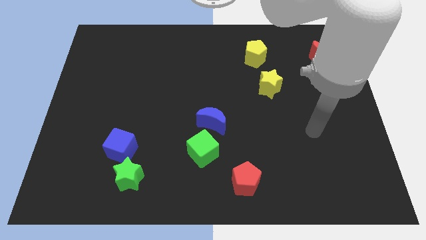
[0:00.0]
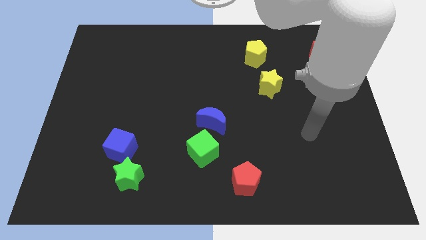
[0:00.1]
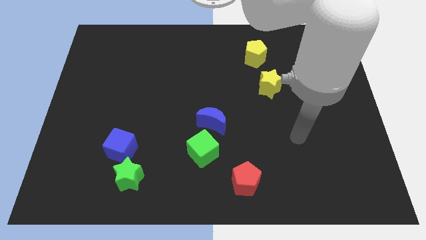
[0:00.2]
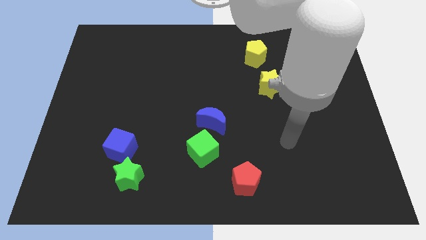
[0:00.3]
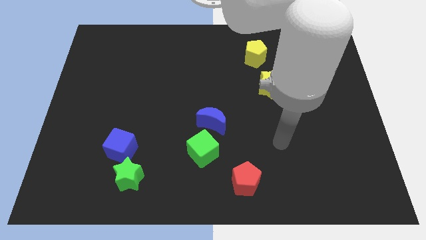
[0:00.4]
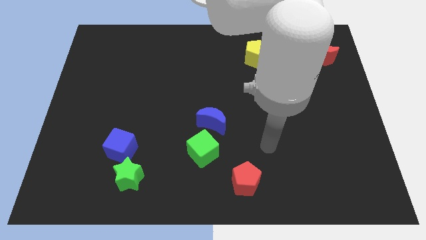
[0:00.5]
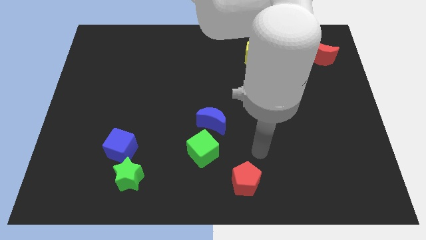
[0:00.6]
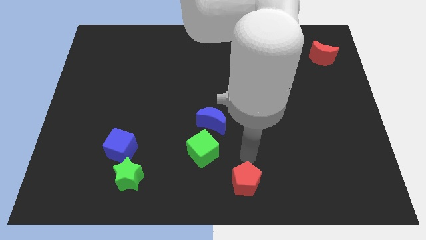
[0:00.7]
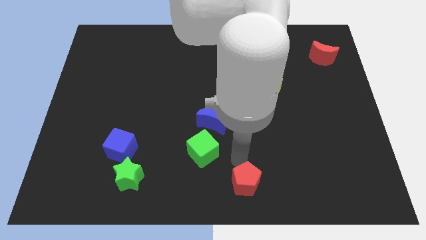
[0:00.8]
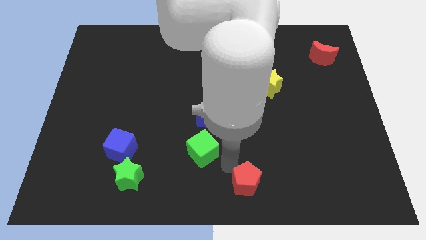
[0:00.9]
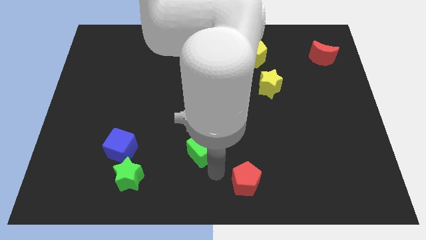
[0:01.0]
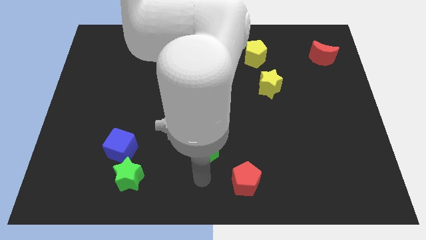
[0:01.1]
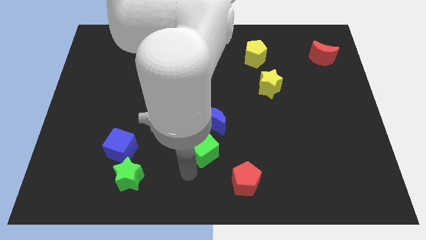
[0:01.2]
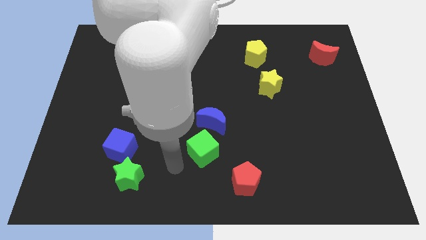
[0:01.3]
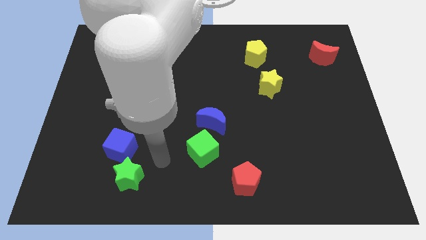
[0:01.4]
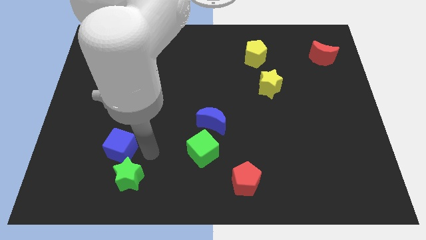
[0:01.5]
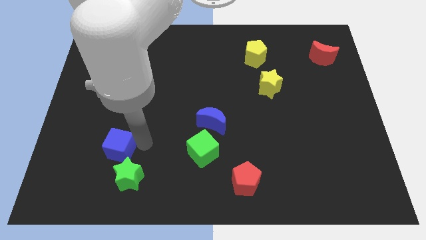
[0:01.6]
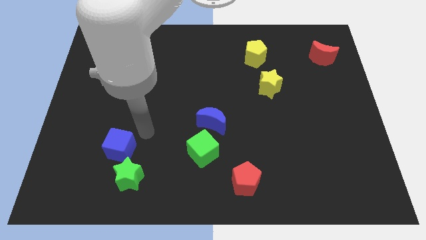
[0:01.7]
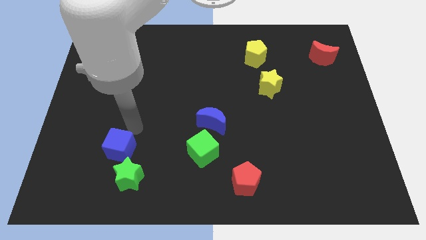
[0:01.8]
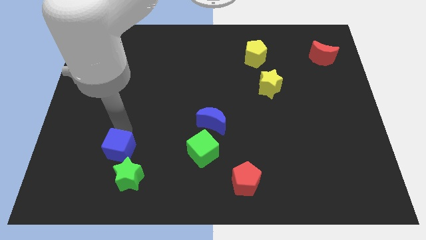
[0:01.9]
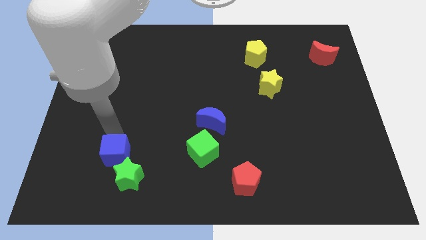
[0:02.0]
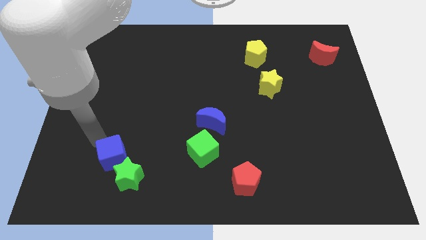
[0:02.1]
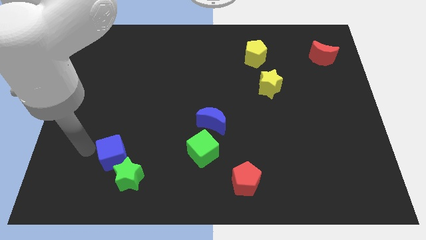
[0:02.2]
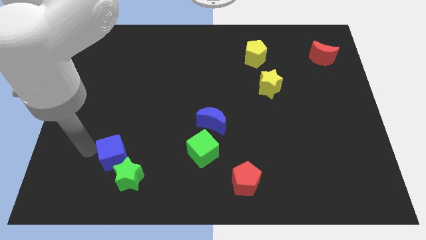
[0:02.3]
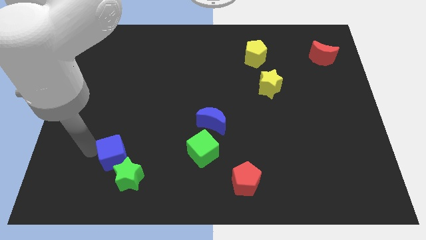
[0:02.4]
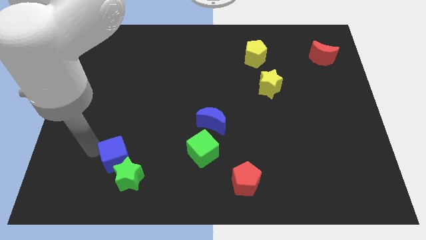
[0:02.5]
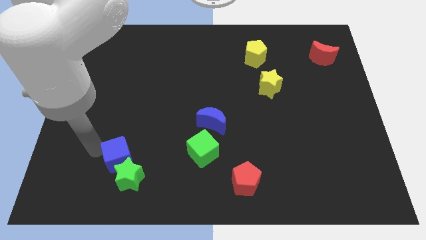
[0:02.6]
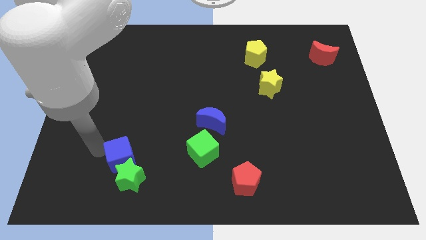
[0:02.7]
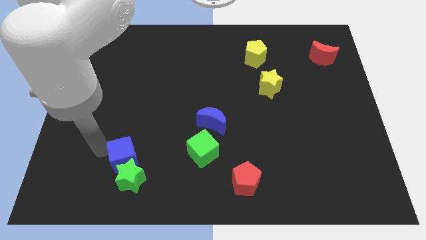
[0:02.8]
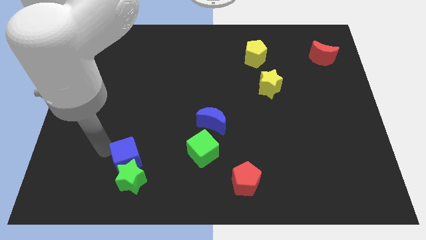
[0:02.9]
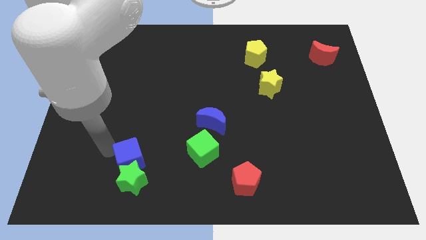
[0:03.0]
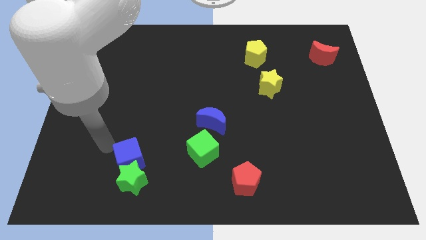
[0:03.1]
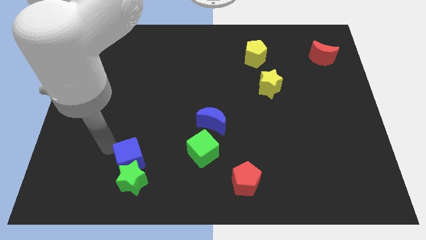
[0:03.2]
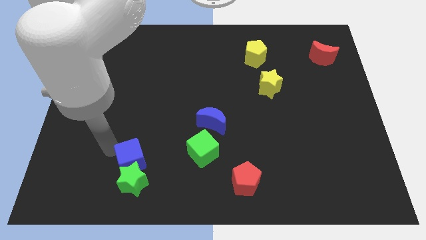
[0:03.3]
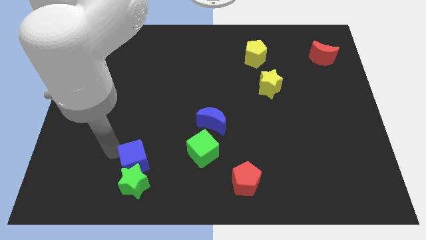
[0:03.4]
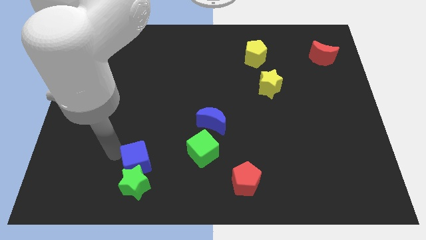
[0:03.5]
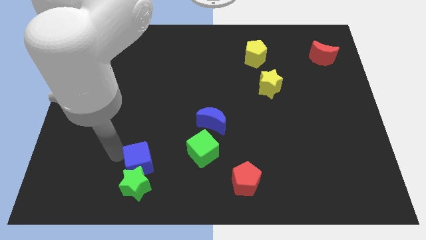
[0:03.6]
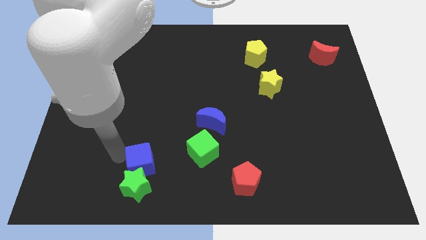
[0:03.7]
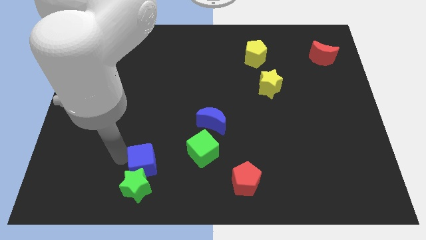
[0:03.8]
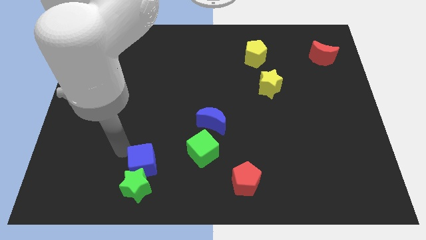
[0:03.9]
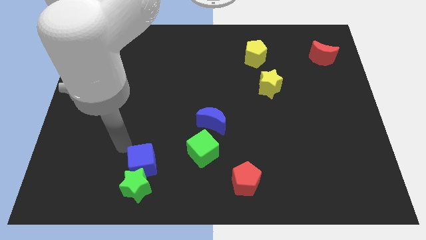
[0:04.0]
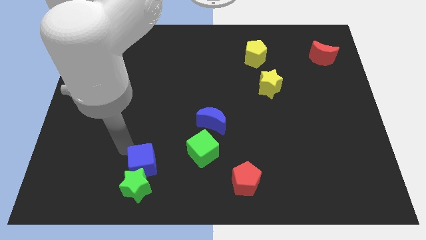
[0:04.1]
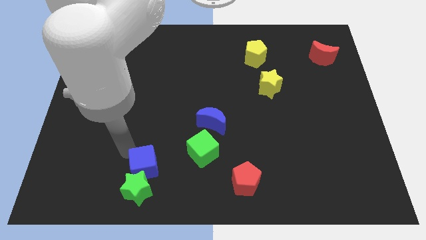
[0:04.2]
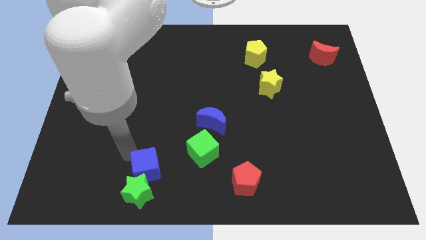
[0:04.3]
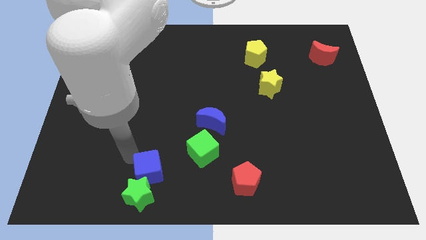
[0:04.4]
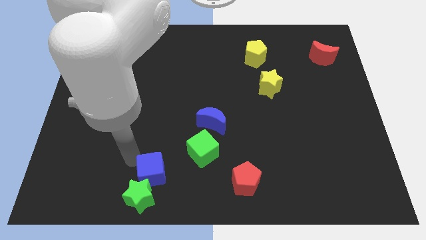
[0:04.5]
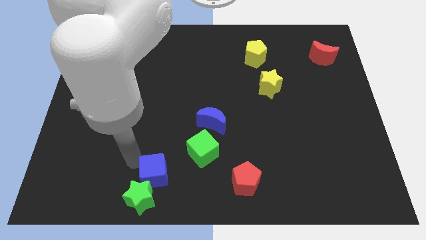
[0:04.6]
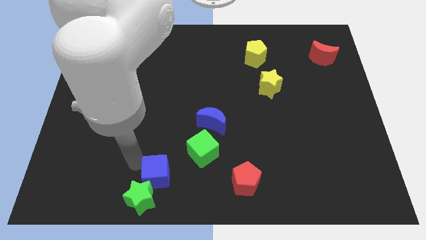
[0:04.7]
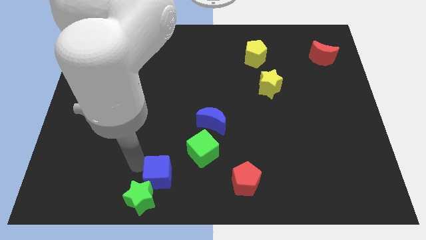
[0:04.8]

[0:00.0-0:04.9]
slide the blue cube to the bottom

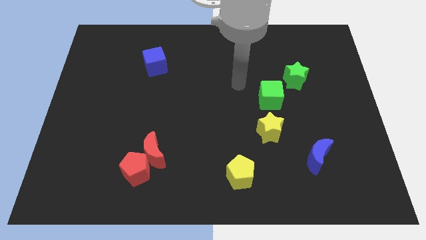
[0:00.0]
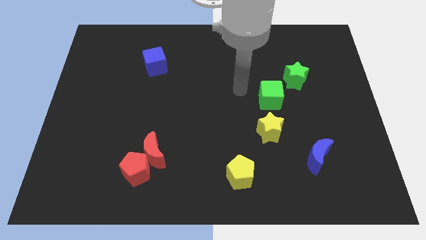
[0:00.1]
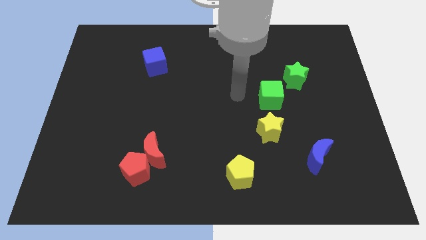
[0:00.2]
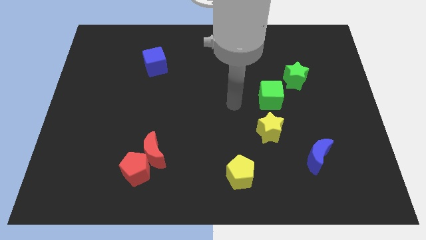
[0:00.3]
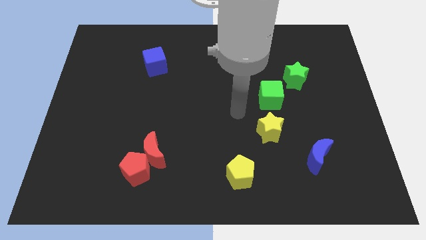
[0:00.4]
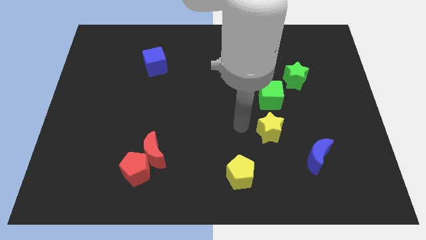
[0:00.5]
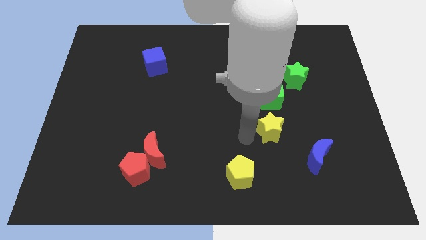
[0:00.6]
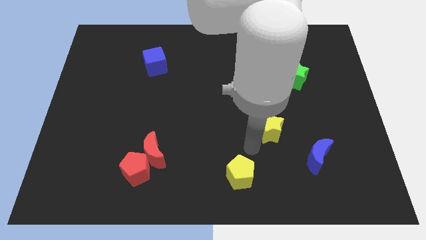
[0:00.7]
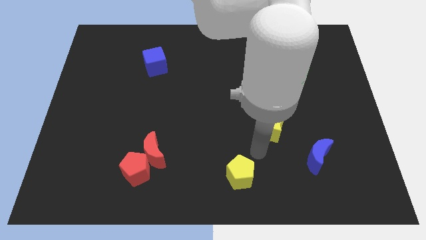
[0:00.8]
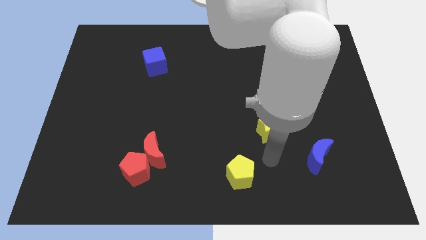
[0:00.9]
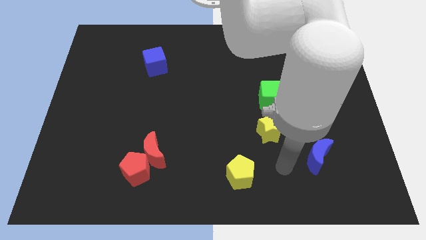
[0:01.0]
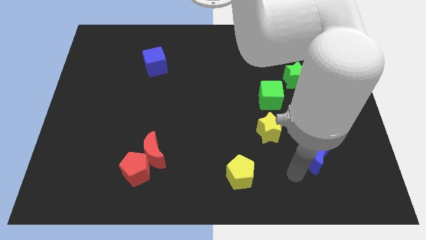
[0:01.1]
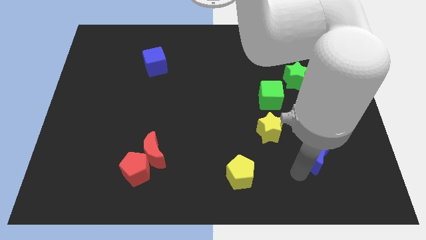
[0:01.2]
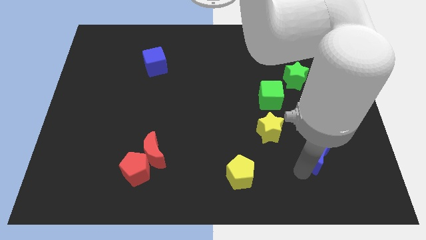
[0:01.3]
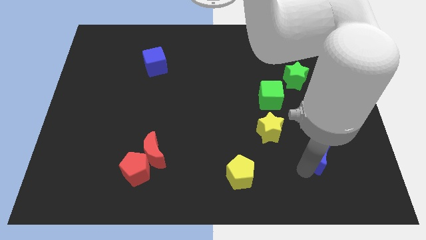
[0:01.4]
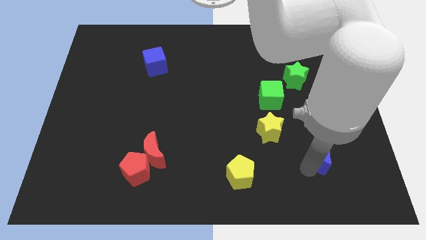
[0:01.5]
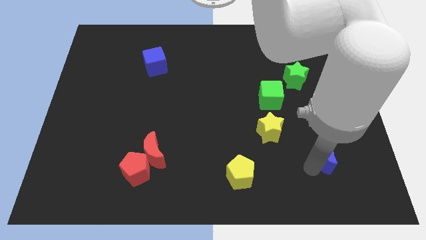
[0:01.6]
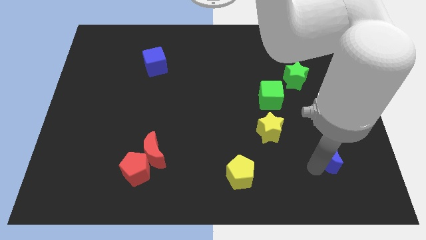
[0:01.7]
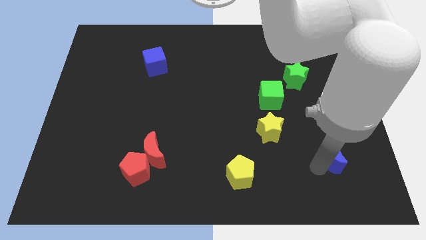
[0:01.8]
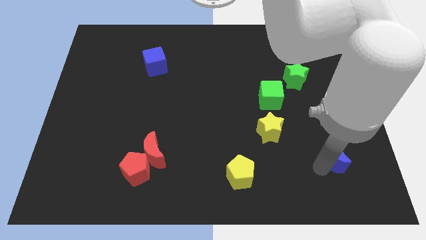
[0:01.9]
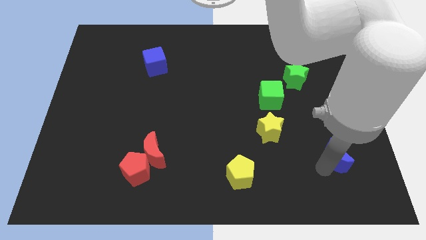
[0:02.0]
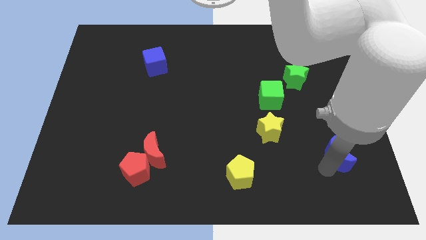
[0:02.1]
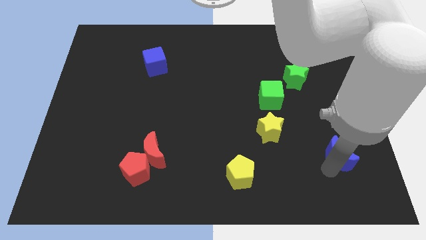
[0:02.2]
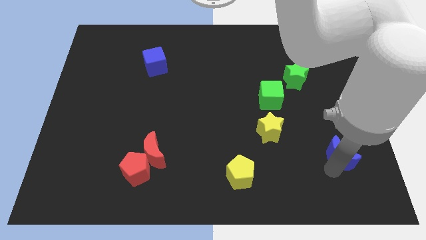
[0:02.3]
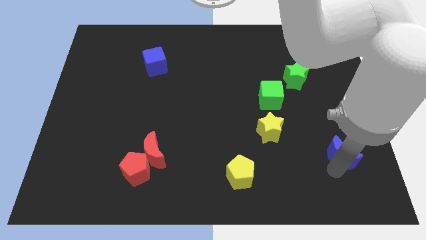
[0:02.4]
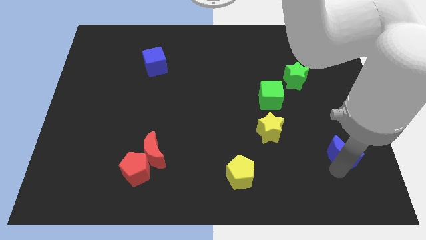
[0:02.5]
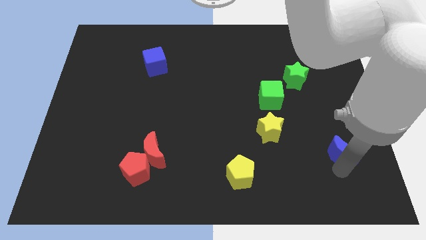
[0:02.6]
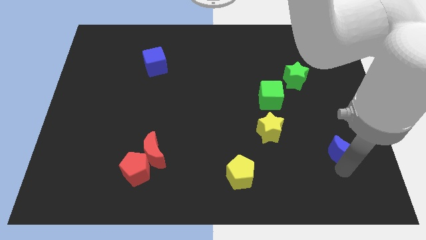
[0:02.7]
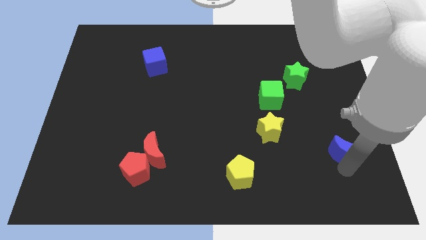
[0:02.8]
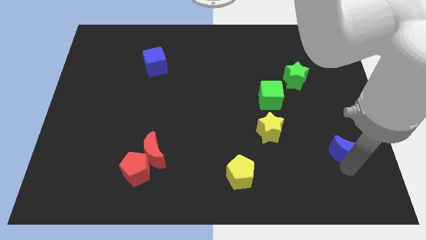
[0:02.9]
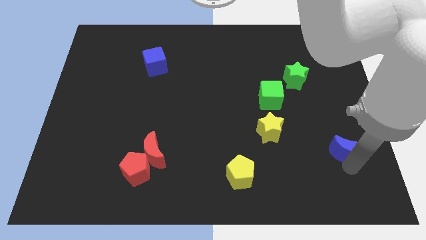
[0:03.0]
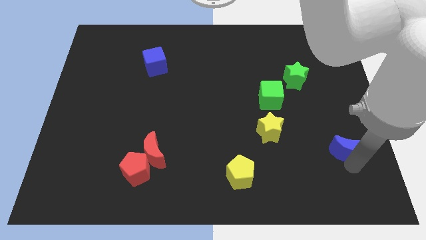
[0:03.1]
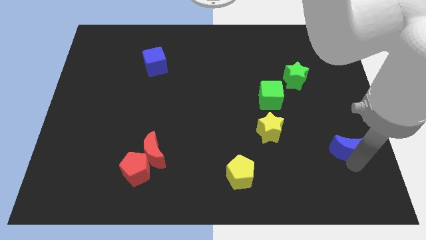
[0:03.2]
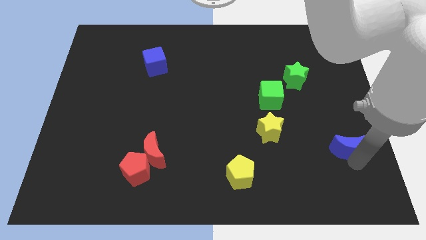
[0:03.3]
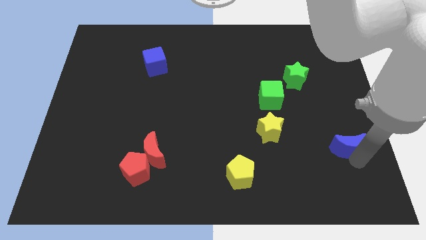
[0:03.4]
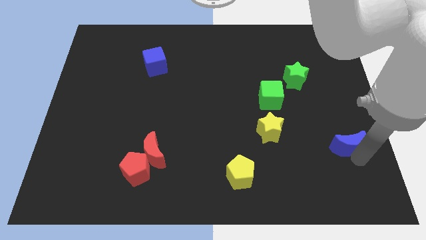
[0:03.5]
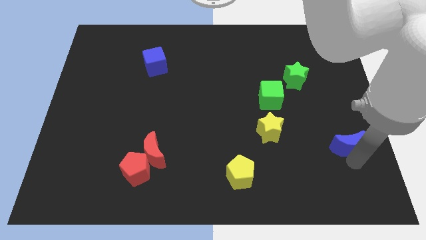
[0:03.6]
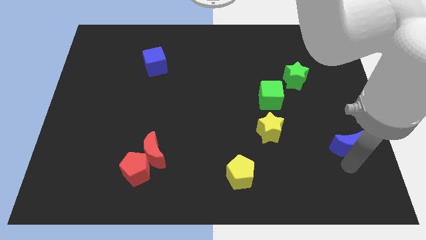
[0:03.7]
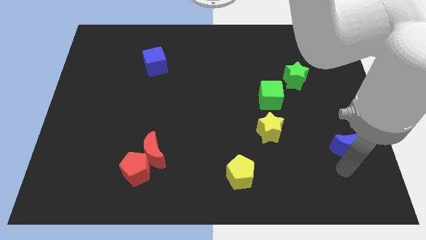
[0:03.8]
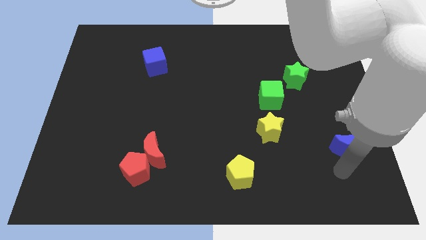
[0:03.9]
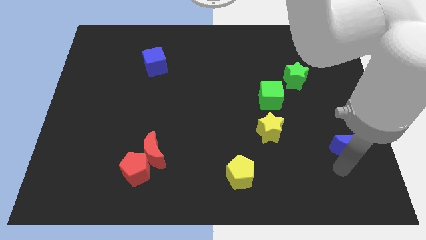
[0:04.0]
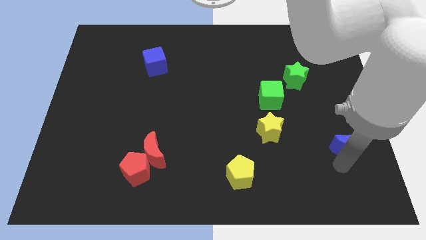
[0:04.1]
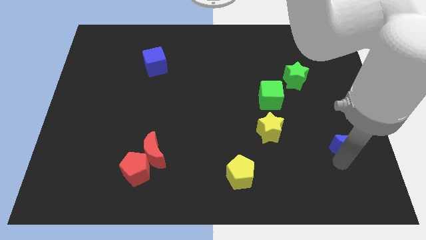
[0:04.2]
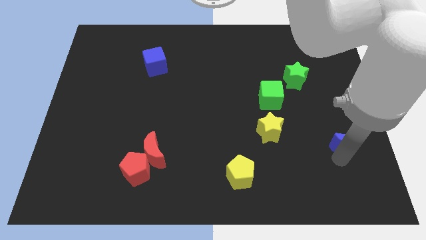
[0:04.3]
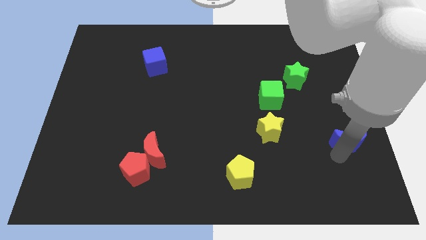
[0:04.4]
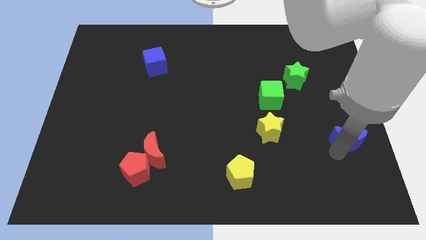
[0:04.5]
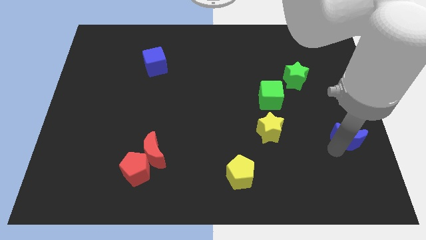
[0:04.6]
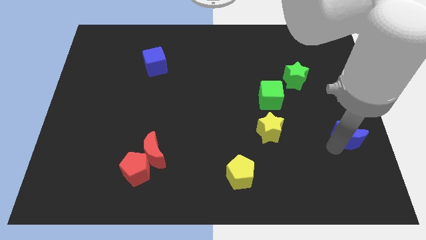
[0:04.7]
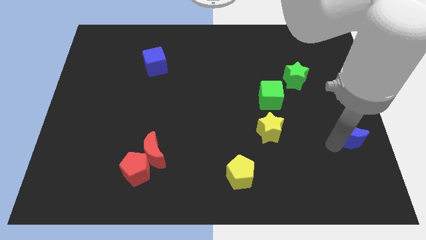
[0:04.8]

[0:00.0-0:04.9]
push the blue moon to the right side
